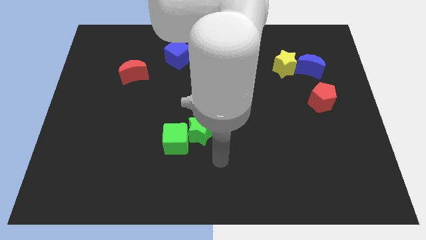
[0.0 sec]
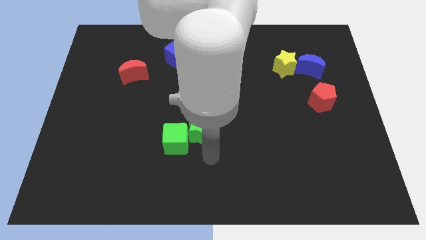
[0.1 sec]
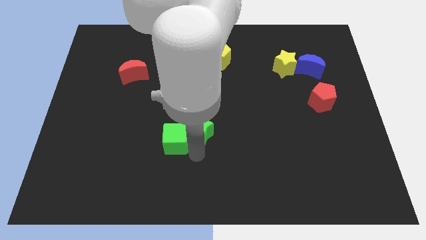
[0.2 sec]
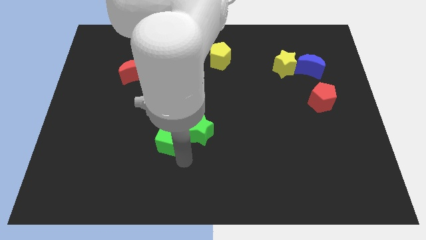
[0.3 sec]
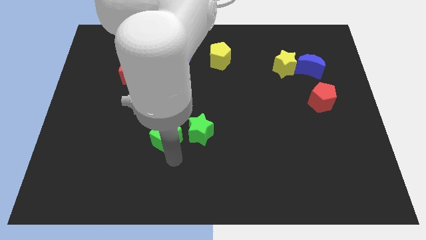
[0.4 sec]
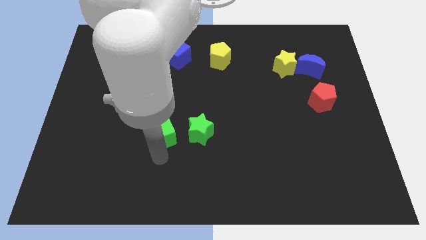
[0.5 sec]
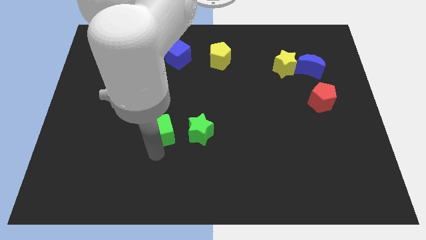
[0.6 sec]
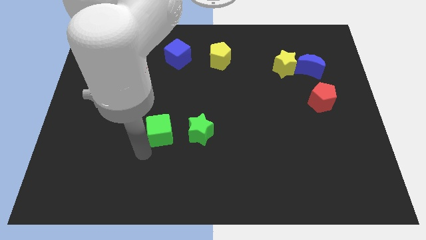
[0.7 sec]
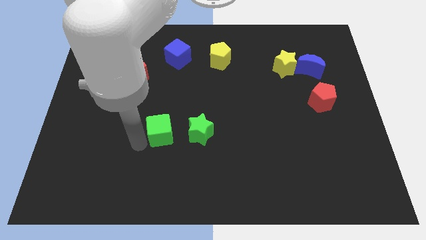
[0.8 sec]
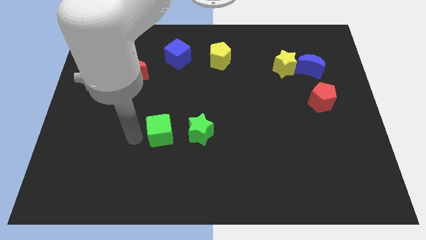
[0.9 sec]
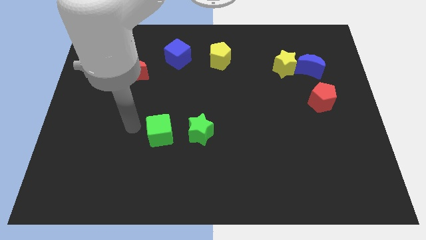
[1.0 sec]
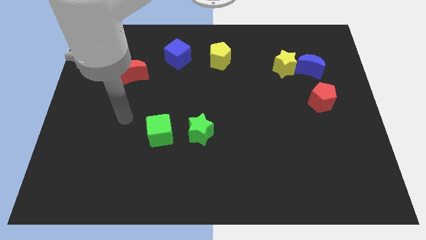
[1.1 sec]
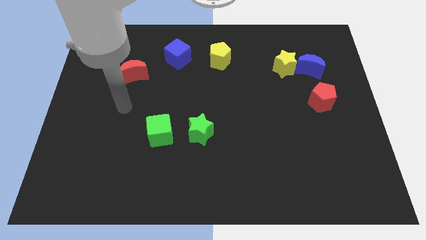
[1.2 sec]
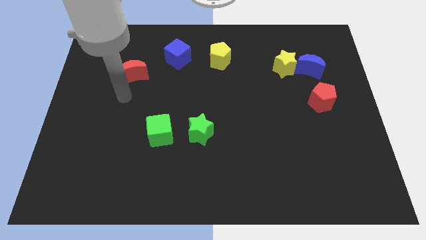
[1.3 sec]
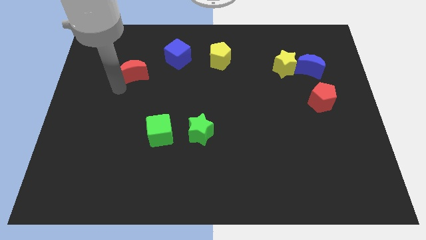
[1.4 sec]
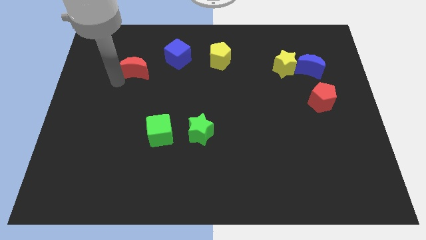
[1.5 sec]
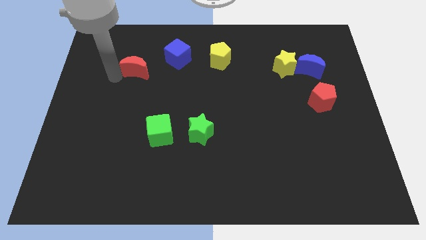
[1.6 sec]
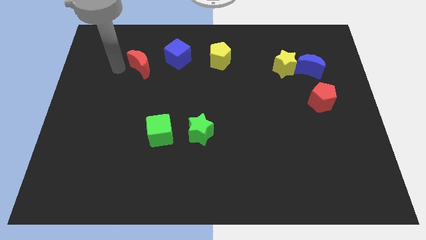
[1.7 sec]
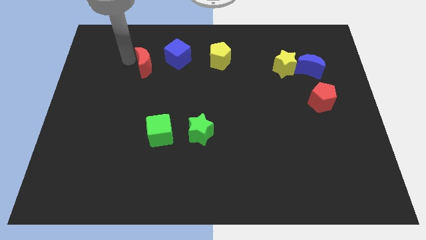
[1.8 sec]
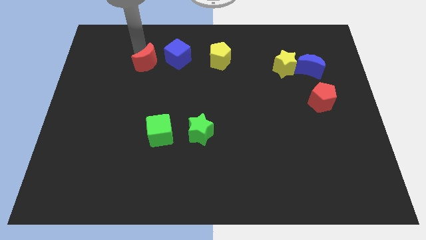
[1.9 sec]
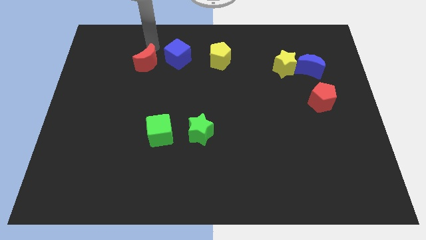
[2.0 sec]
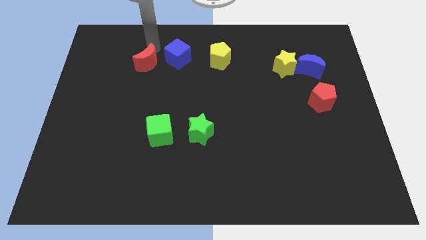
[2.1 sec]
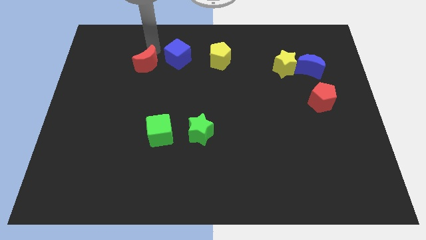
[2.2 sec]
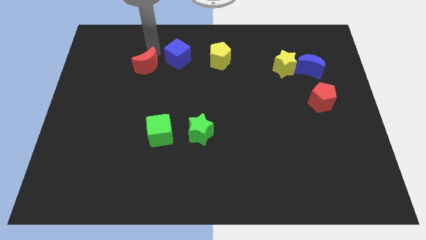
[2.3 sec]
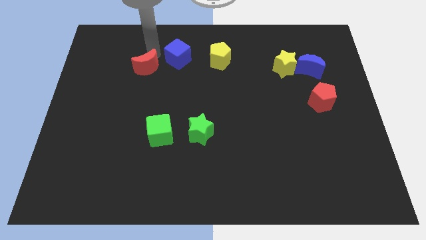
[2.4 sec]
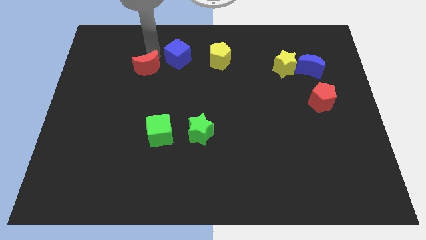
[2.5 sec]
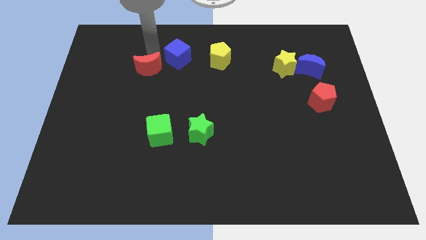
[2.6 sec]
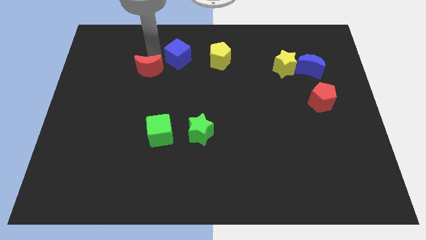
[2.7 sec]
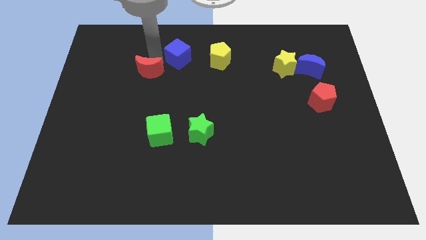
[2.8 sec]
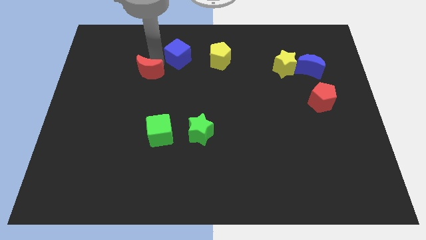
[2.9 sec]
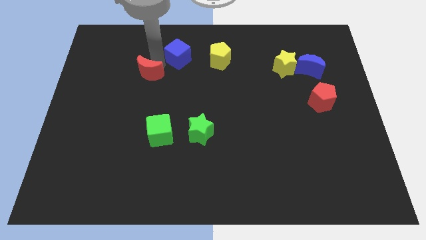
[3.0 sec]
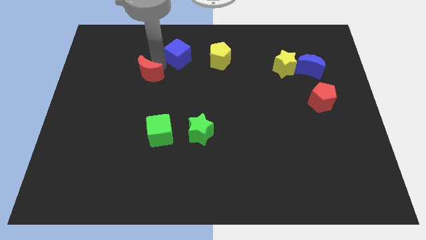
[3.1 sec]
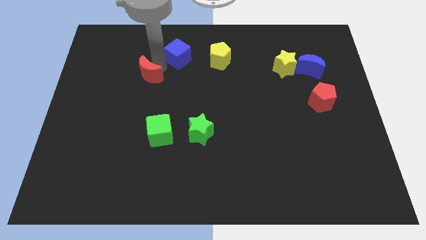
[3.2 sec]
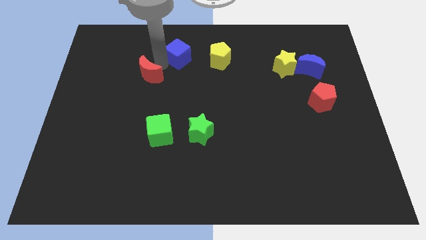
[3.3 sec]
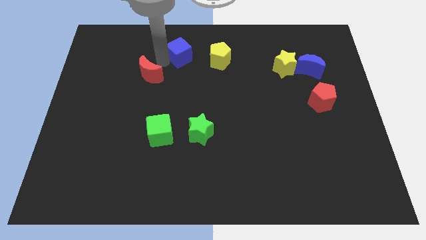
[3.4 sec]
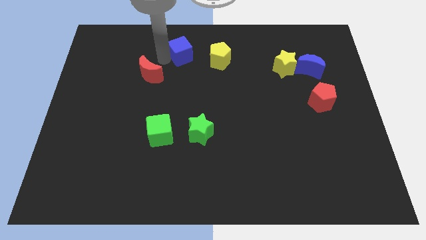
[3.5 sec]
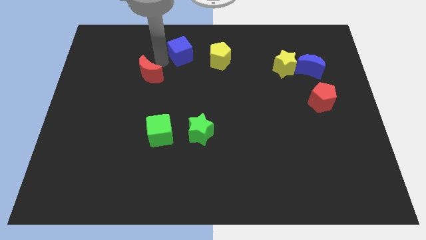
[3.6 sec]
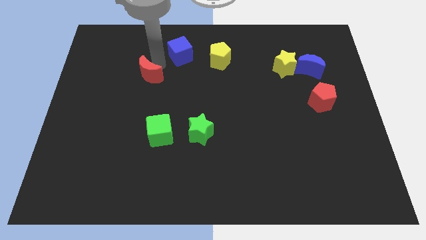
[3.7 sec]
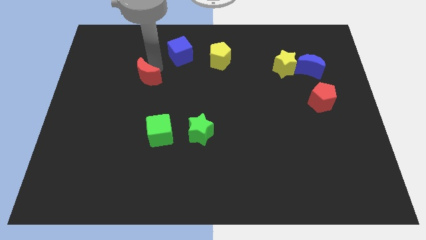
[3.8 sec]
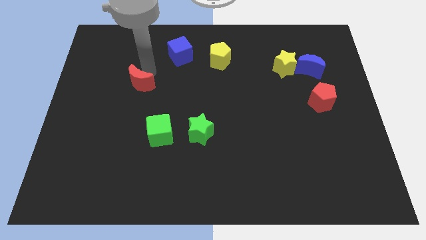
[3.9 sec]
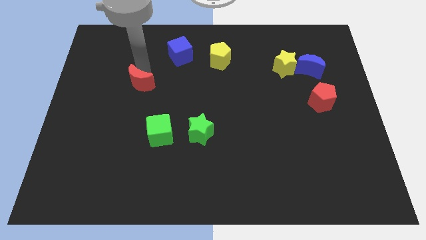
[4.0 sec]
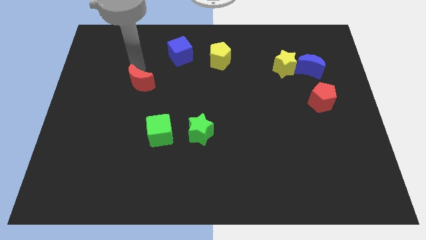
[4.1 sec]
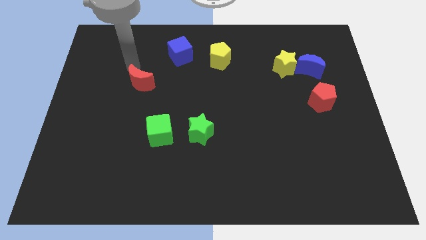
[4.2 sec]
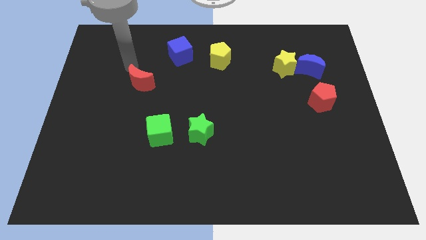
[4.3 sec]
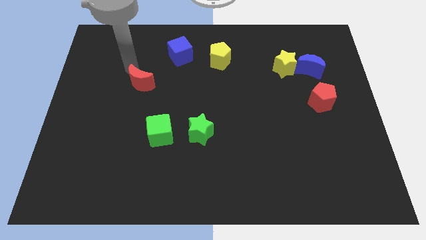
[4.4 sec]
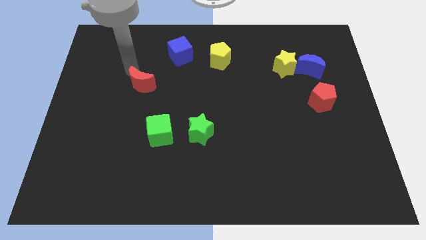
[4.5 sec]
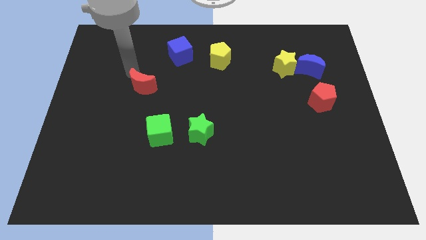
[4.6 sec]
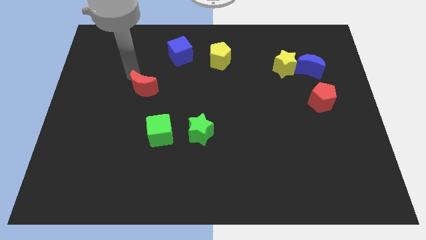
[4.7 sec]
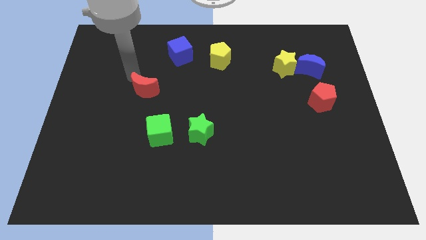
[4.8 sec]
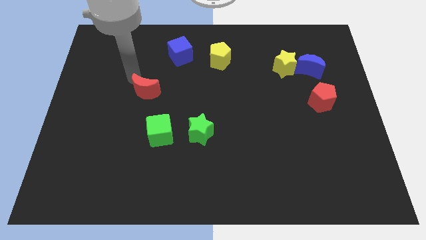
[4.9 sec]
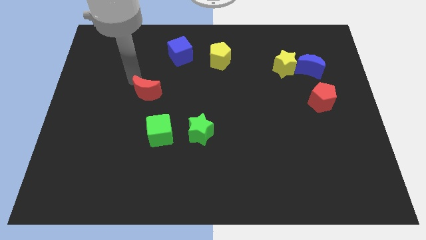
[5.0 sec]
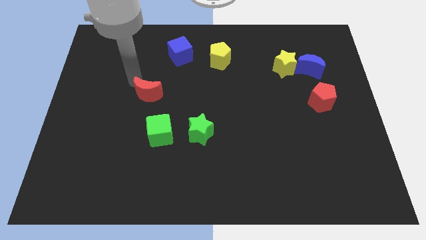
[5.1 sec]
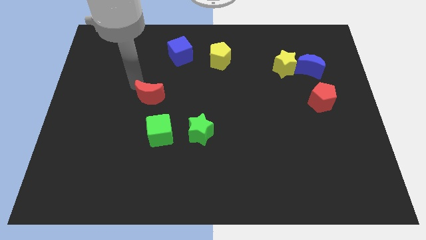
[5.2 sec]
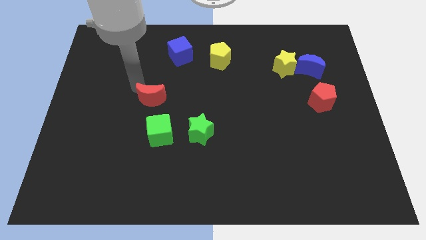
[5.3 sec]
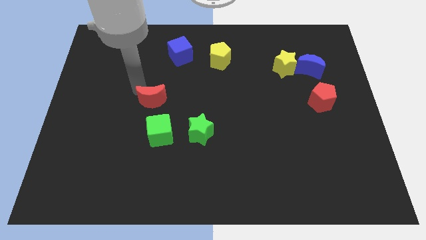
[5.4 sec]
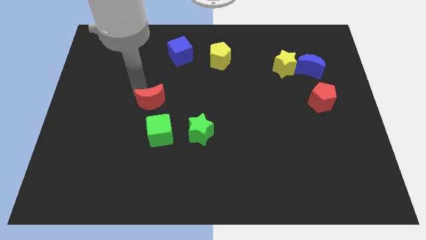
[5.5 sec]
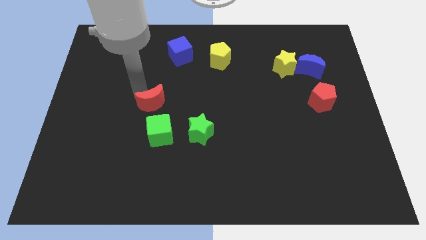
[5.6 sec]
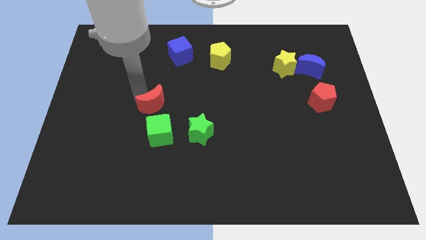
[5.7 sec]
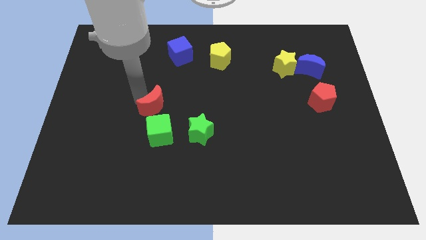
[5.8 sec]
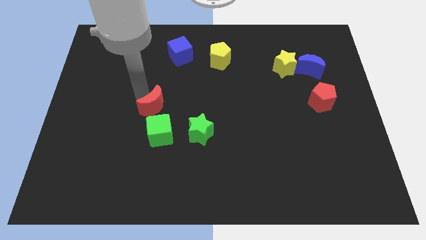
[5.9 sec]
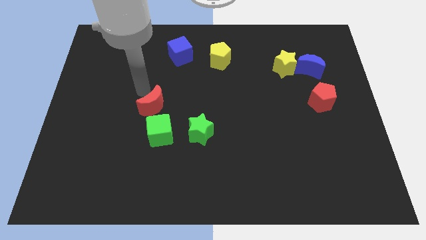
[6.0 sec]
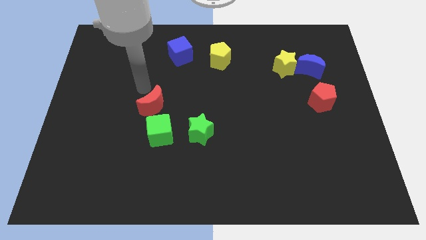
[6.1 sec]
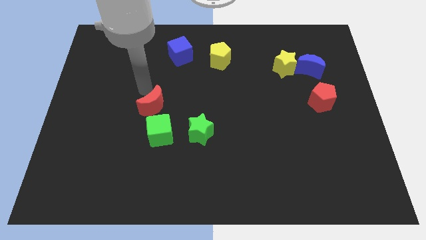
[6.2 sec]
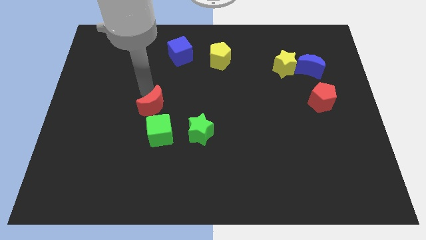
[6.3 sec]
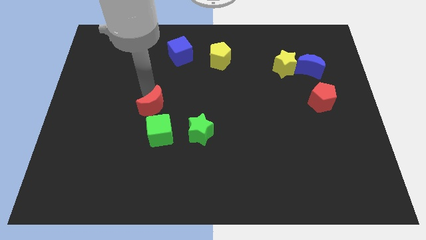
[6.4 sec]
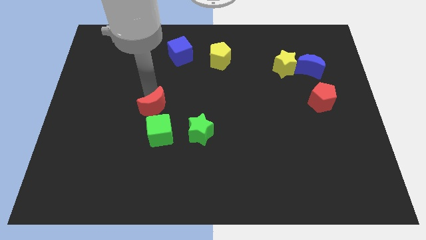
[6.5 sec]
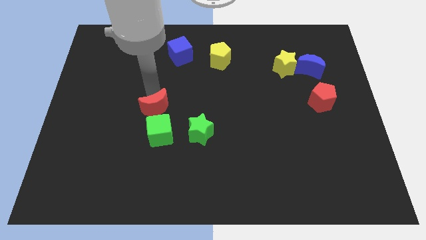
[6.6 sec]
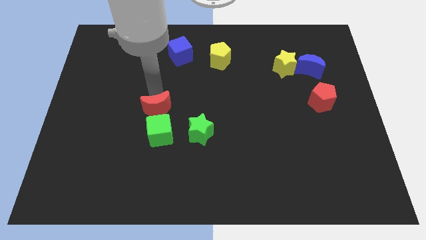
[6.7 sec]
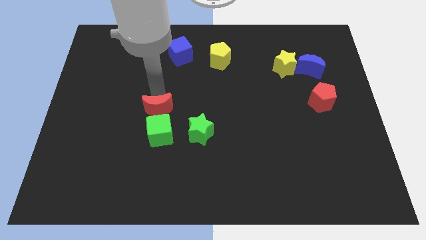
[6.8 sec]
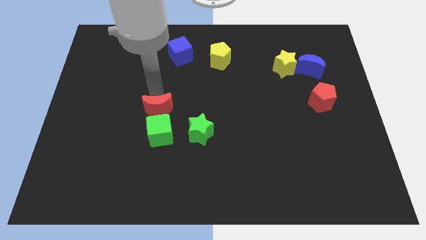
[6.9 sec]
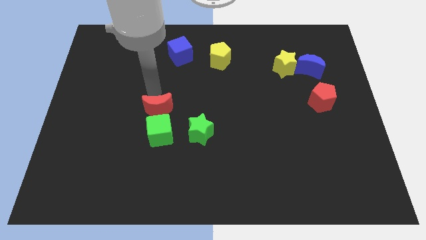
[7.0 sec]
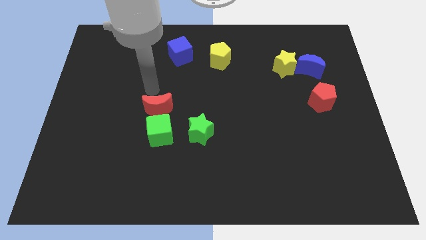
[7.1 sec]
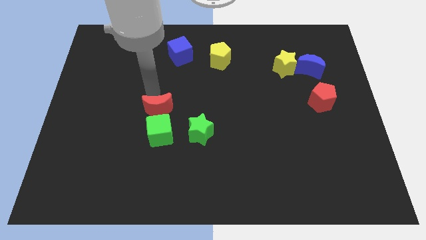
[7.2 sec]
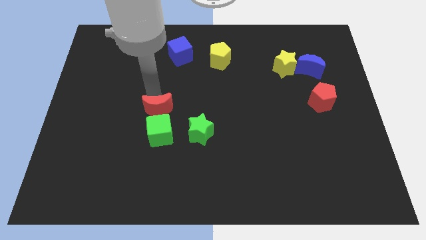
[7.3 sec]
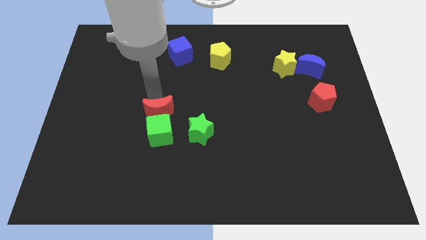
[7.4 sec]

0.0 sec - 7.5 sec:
slide the red moon to the green cube
